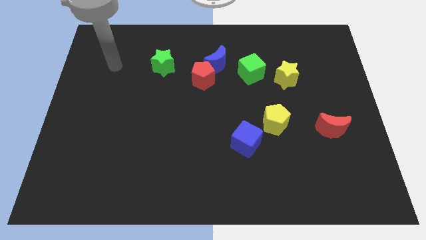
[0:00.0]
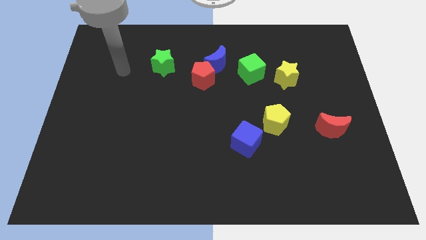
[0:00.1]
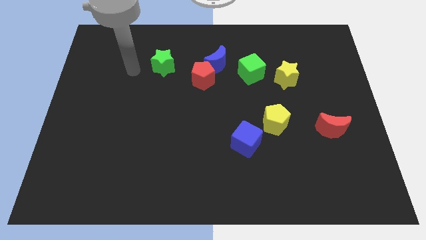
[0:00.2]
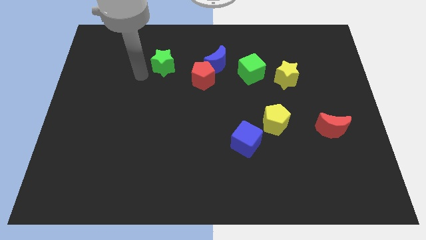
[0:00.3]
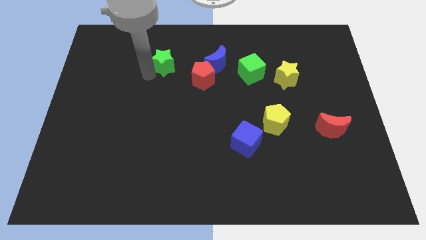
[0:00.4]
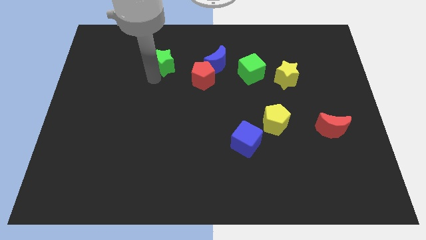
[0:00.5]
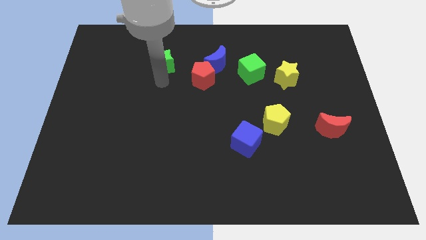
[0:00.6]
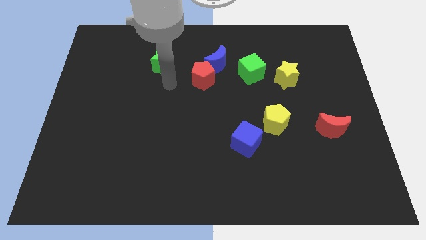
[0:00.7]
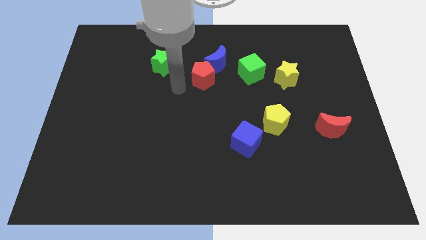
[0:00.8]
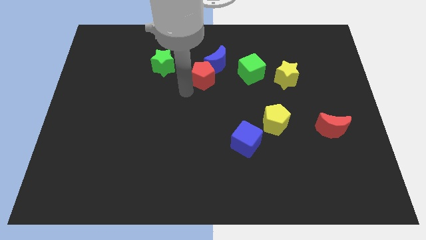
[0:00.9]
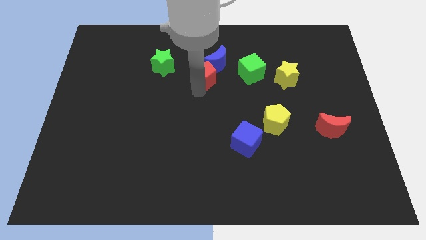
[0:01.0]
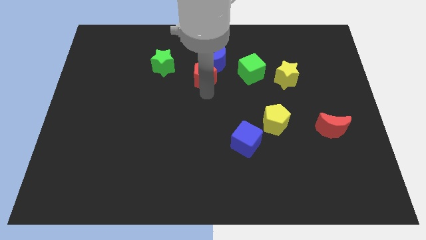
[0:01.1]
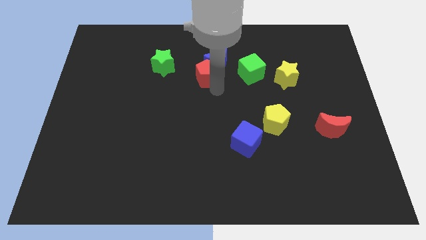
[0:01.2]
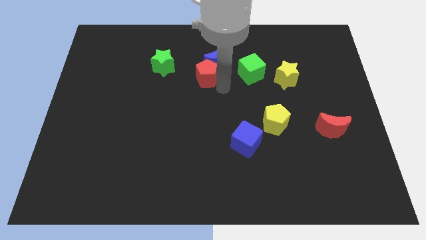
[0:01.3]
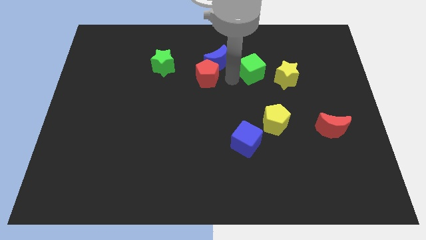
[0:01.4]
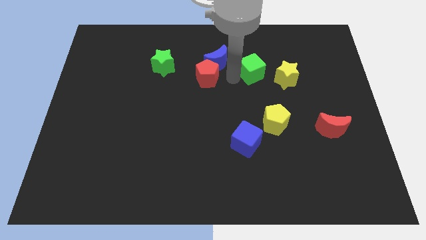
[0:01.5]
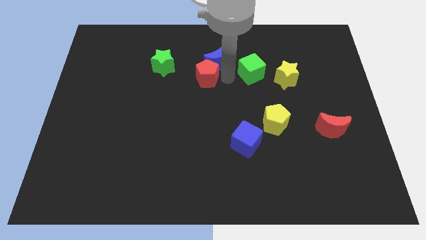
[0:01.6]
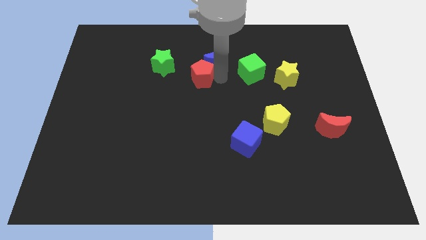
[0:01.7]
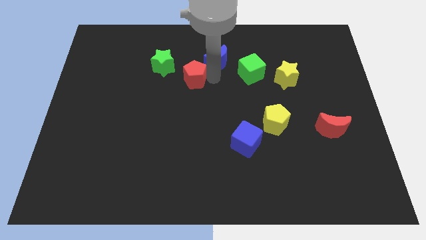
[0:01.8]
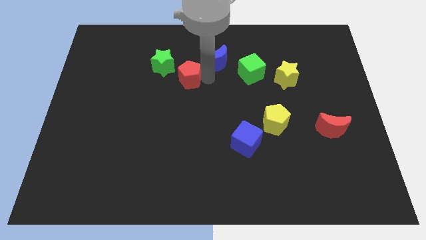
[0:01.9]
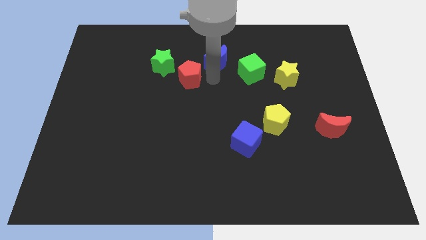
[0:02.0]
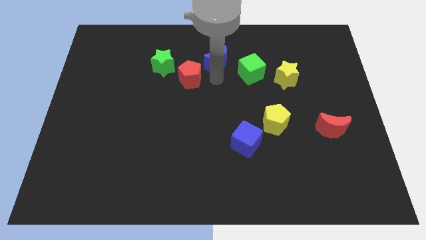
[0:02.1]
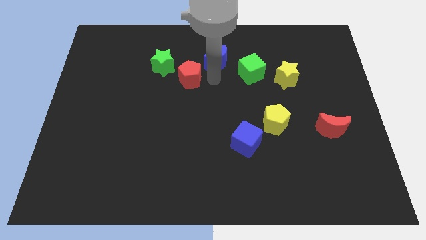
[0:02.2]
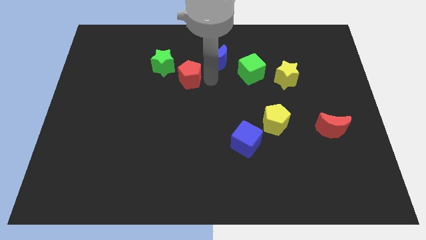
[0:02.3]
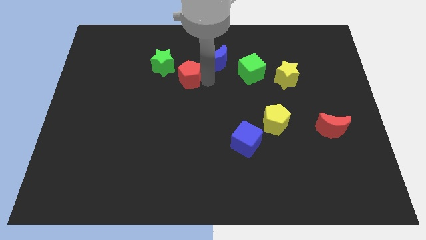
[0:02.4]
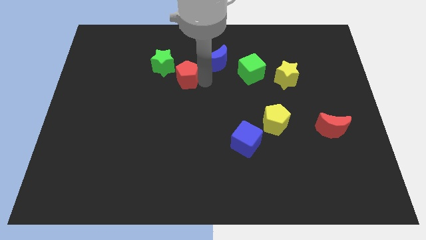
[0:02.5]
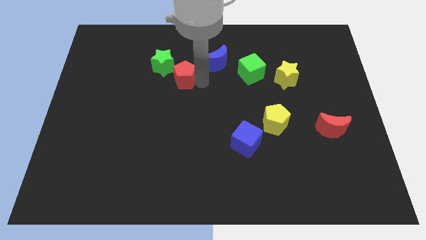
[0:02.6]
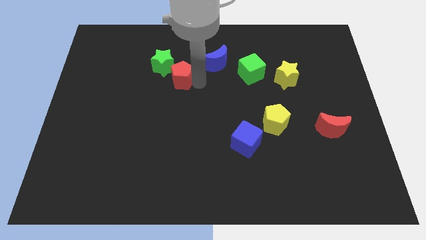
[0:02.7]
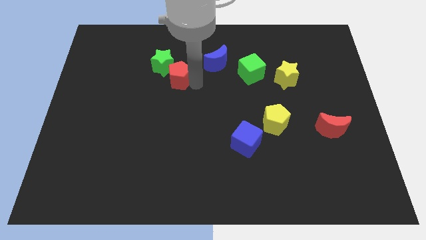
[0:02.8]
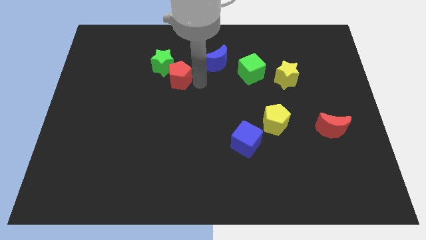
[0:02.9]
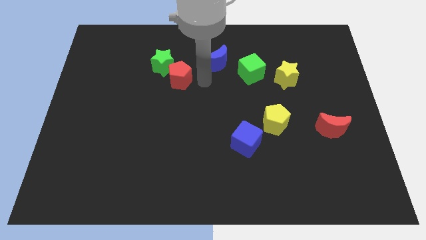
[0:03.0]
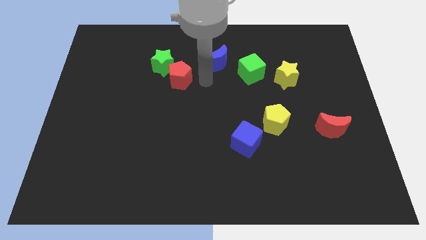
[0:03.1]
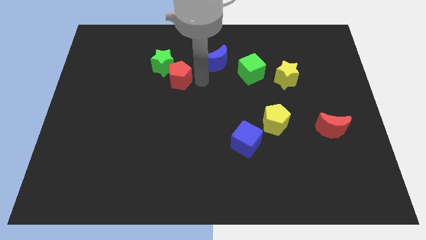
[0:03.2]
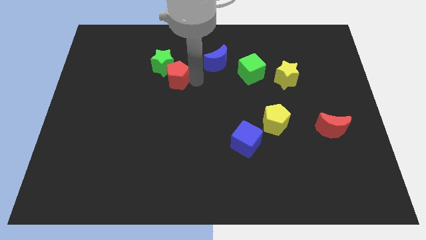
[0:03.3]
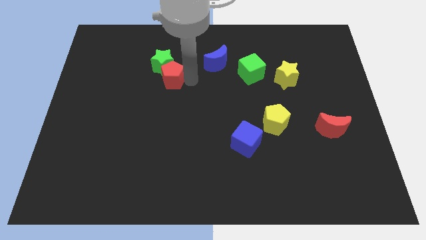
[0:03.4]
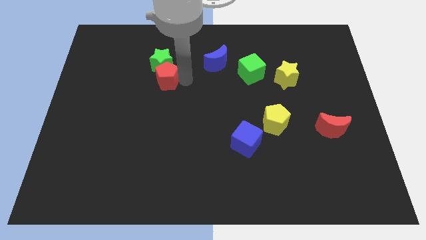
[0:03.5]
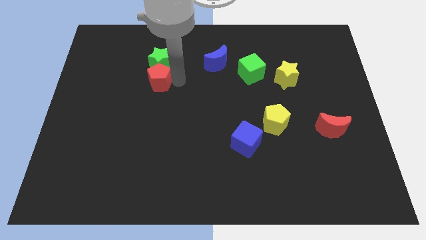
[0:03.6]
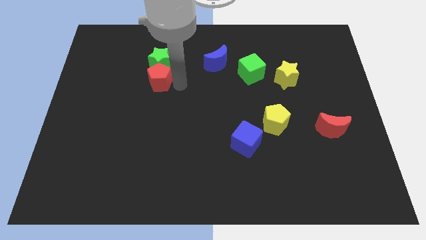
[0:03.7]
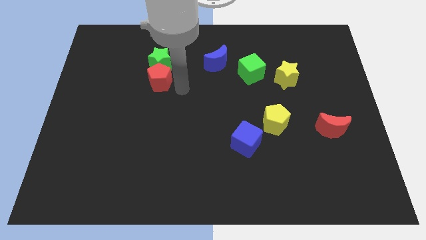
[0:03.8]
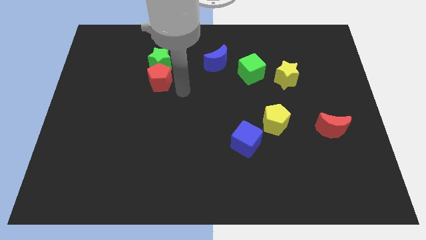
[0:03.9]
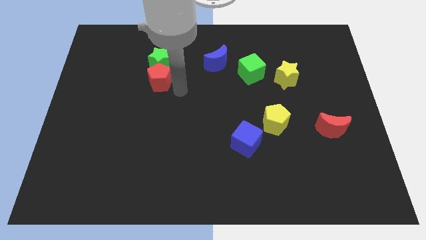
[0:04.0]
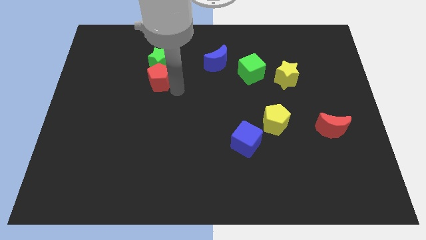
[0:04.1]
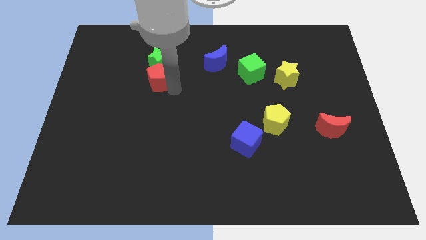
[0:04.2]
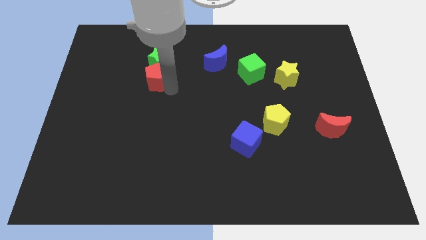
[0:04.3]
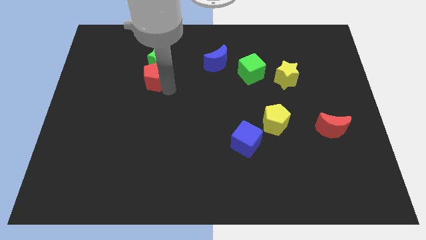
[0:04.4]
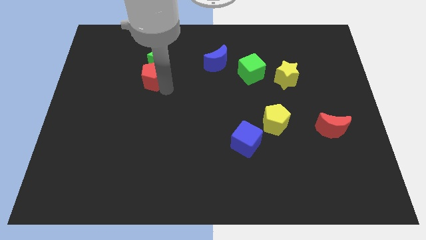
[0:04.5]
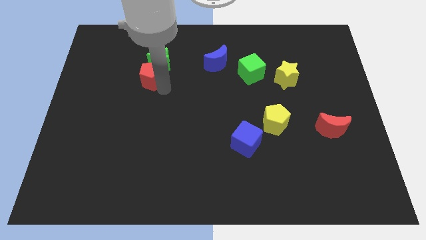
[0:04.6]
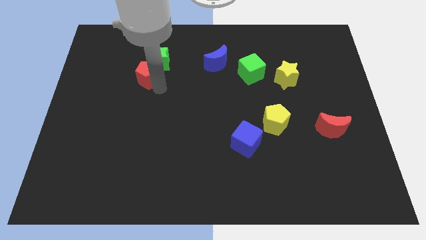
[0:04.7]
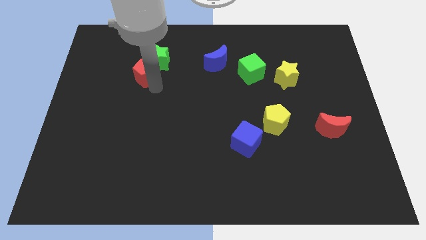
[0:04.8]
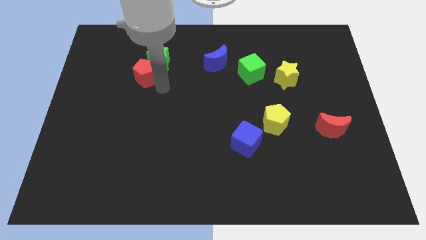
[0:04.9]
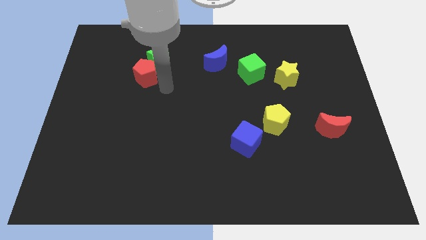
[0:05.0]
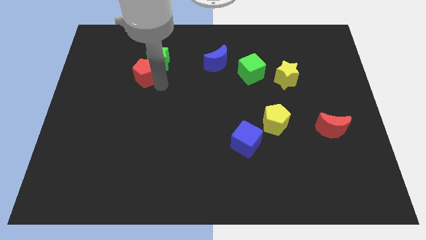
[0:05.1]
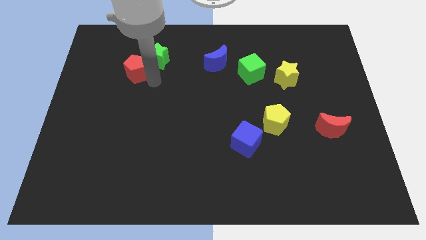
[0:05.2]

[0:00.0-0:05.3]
move the red pentagon left of the green star

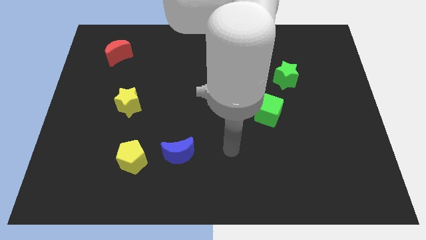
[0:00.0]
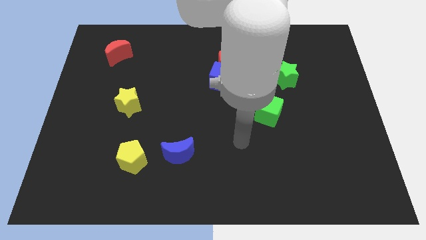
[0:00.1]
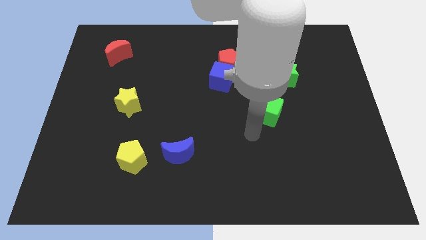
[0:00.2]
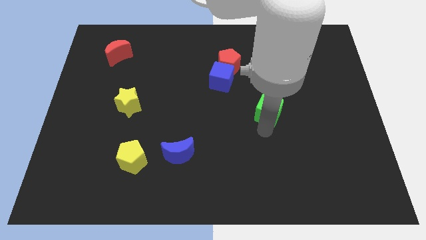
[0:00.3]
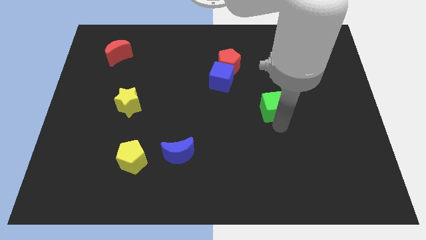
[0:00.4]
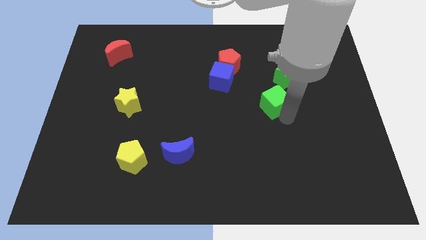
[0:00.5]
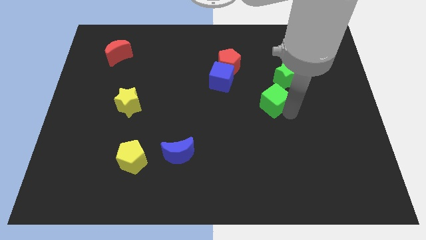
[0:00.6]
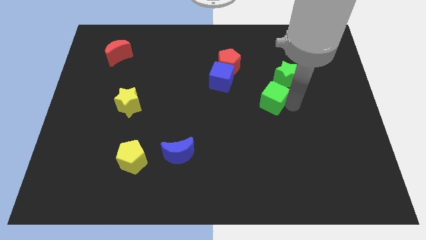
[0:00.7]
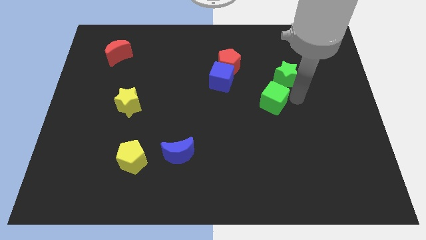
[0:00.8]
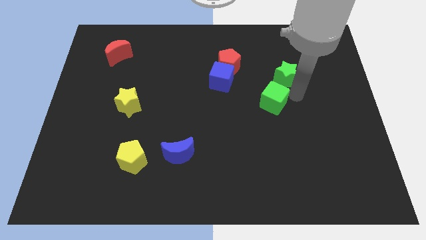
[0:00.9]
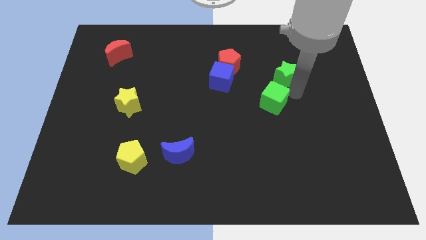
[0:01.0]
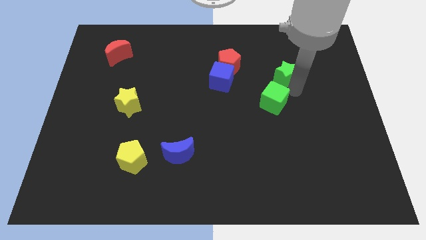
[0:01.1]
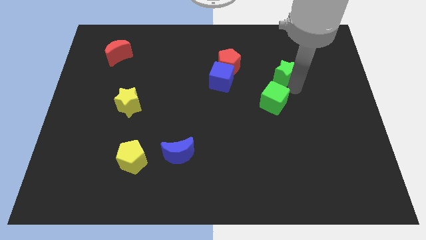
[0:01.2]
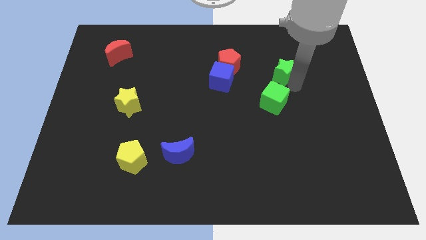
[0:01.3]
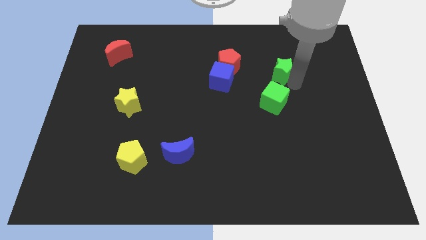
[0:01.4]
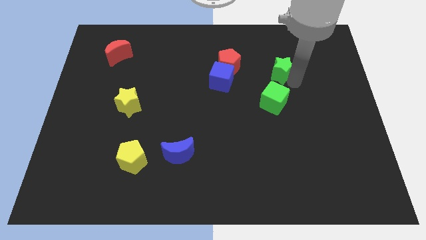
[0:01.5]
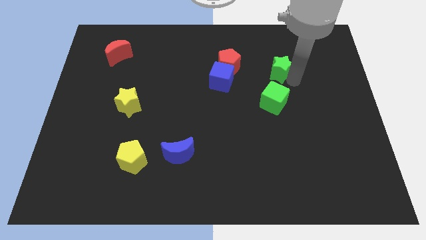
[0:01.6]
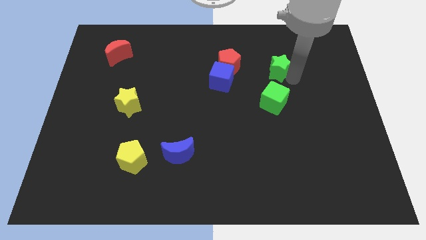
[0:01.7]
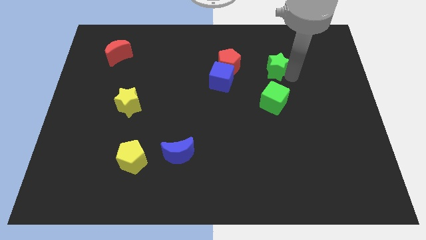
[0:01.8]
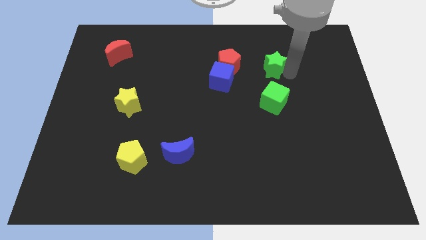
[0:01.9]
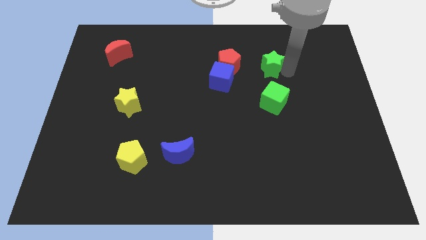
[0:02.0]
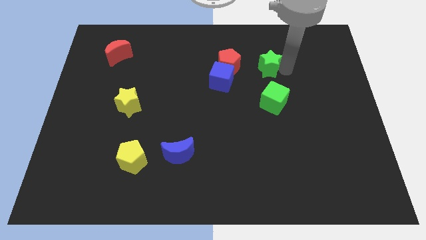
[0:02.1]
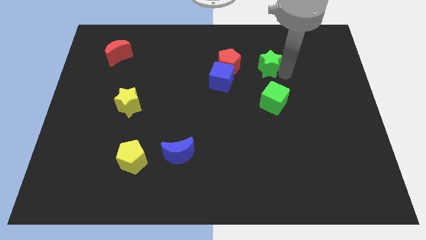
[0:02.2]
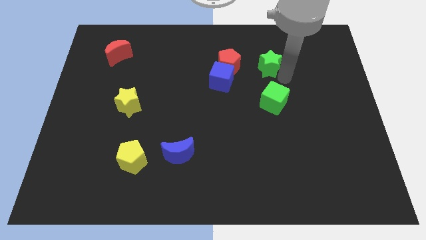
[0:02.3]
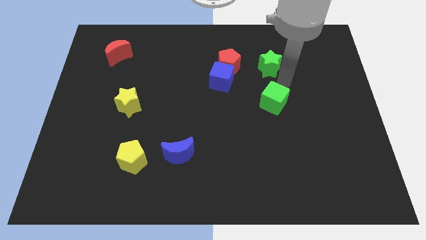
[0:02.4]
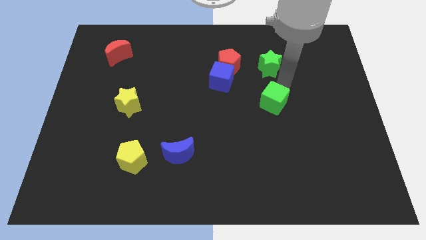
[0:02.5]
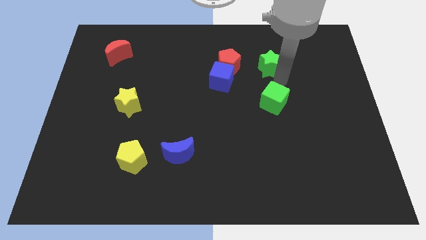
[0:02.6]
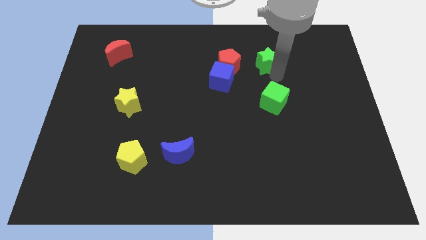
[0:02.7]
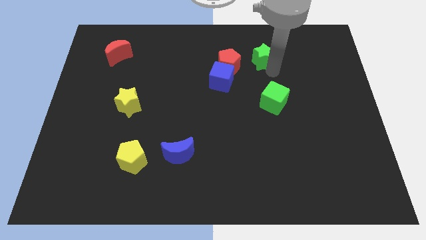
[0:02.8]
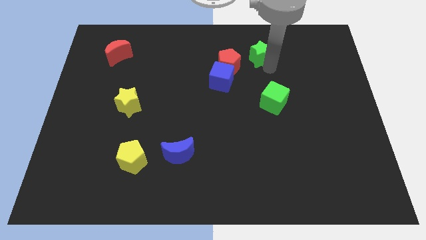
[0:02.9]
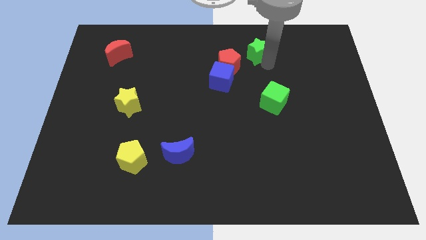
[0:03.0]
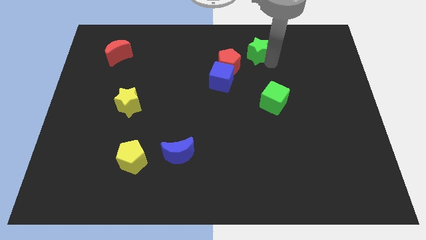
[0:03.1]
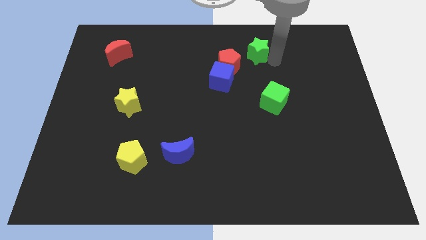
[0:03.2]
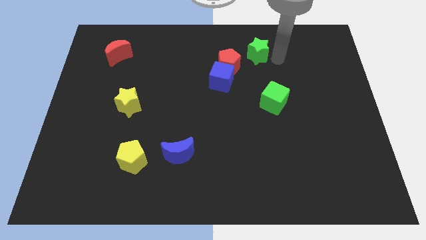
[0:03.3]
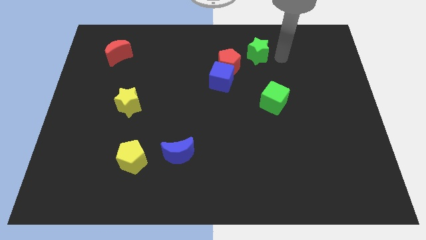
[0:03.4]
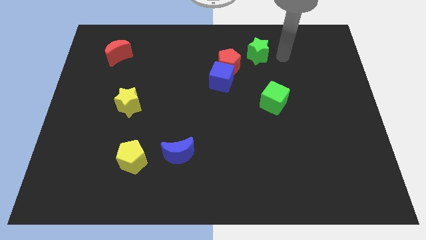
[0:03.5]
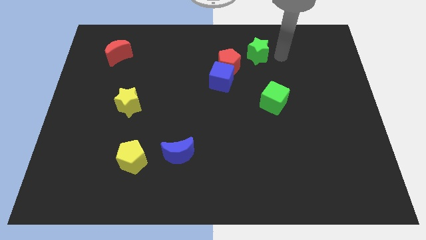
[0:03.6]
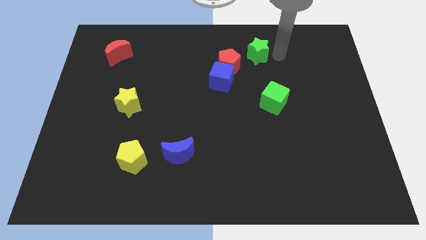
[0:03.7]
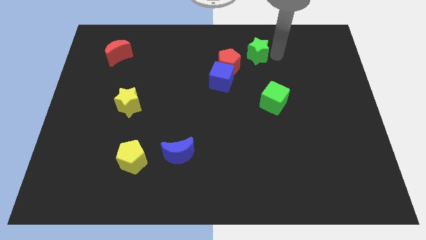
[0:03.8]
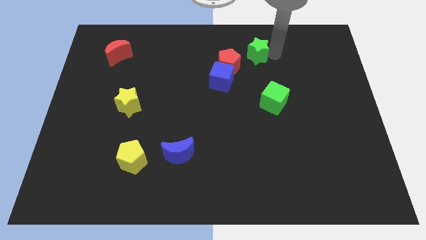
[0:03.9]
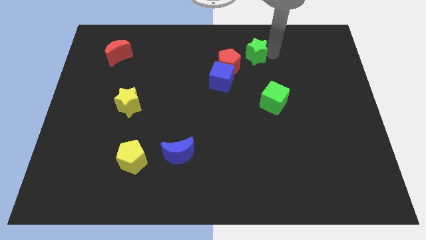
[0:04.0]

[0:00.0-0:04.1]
put the green star to the top right side of the blue cube
